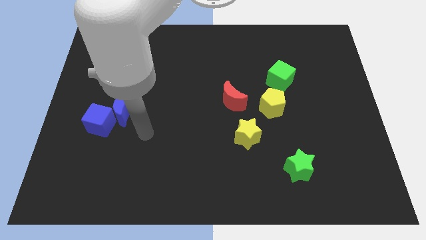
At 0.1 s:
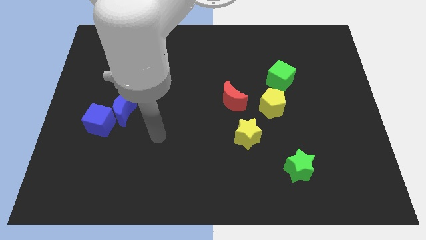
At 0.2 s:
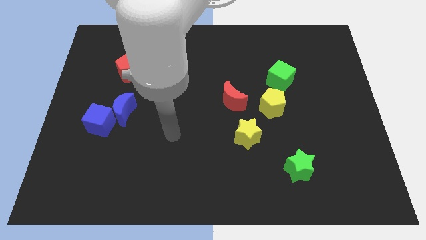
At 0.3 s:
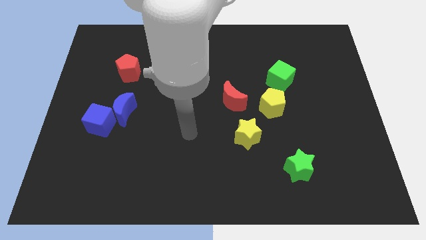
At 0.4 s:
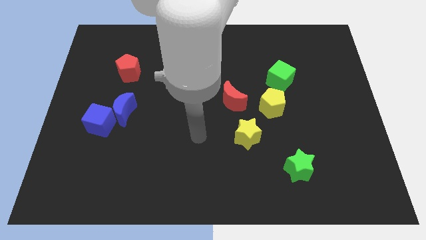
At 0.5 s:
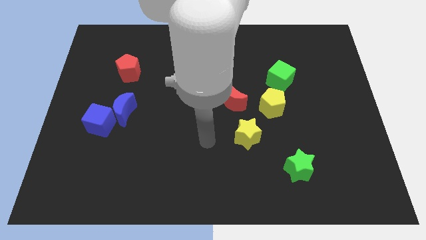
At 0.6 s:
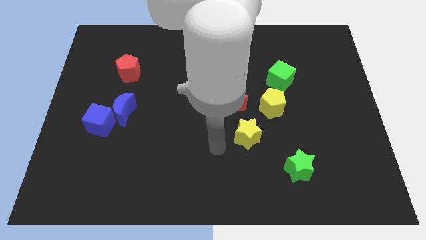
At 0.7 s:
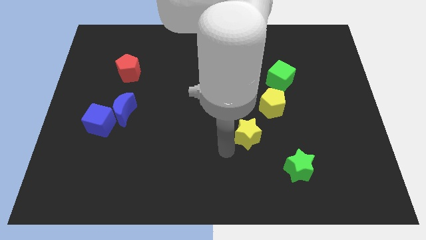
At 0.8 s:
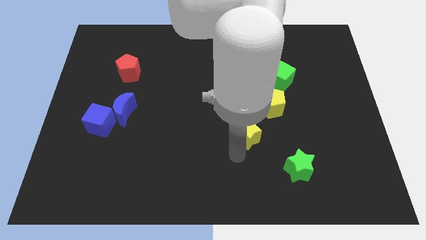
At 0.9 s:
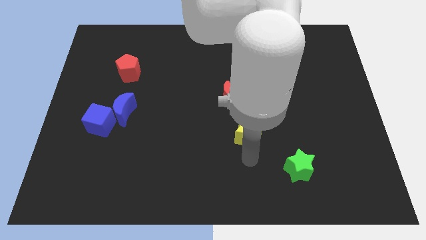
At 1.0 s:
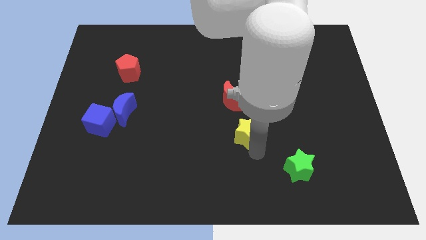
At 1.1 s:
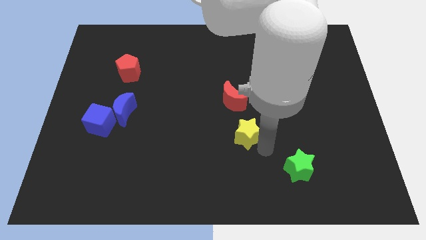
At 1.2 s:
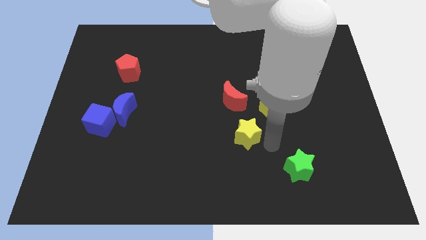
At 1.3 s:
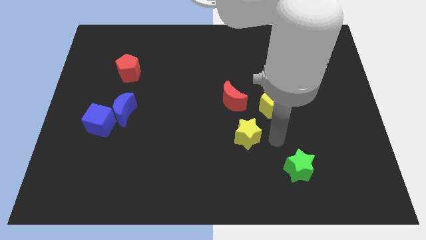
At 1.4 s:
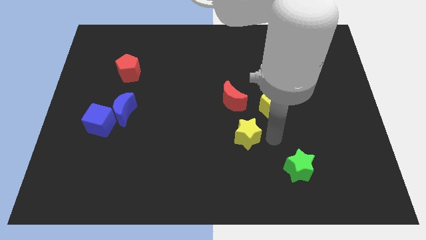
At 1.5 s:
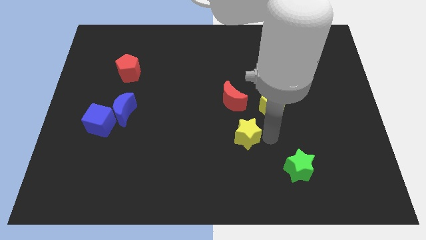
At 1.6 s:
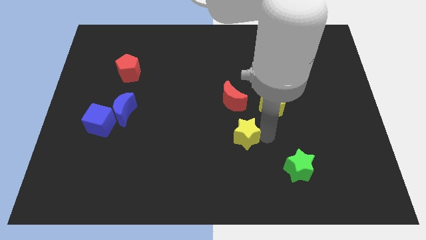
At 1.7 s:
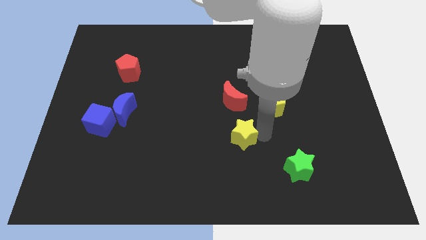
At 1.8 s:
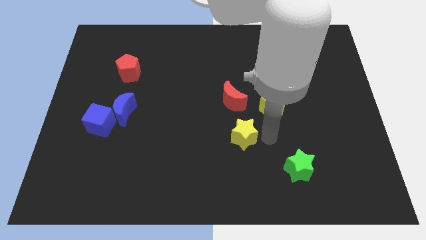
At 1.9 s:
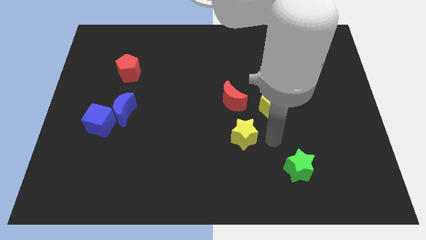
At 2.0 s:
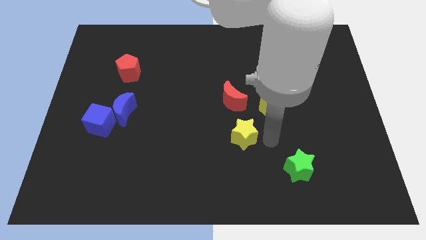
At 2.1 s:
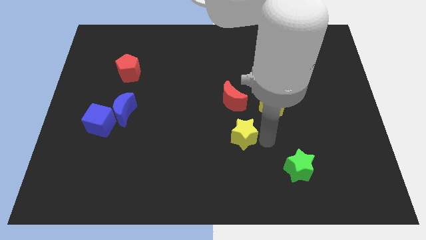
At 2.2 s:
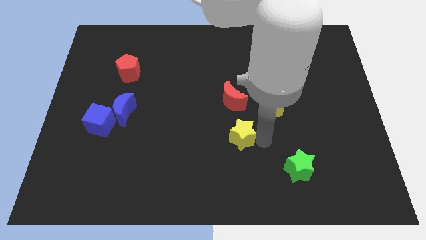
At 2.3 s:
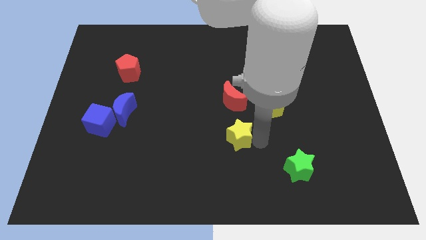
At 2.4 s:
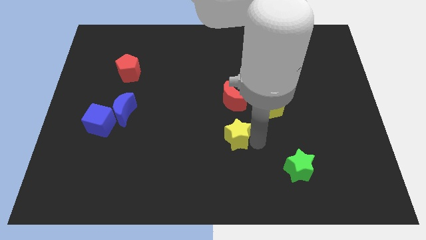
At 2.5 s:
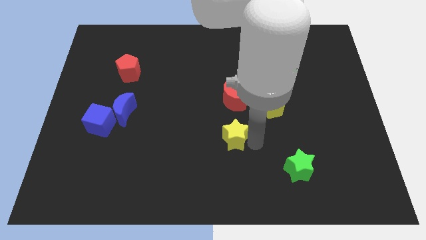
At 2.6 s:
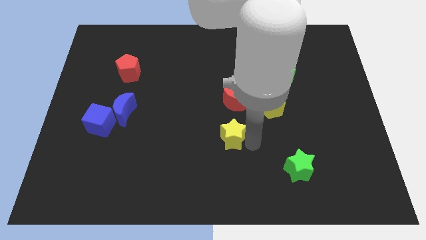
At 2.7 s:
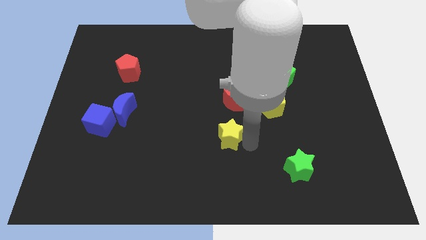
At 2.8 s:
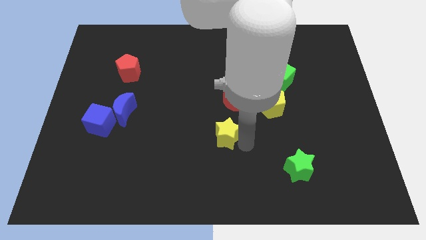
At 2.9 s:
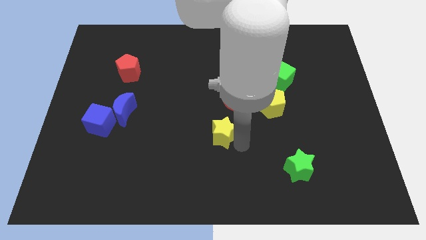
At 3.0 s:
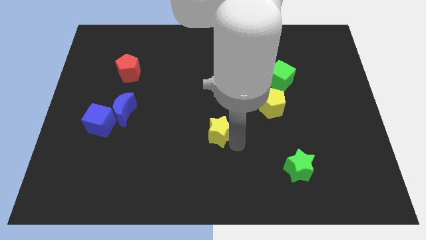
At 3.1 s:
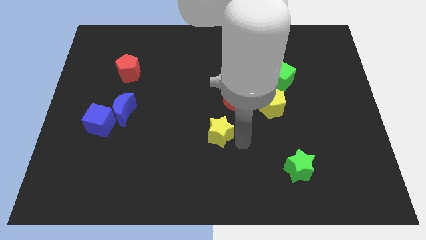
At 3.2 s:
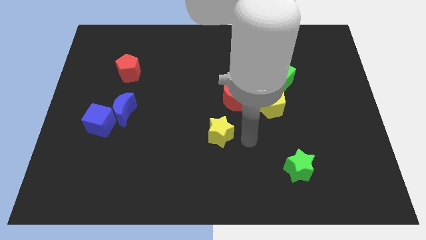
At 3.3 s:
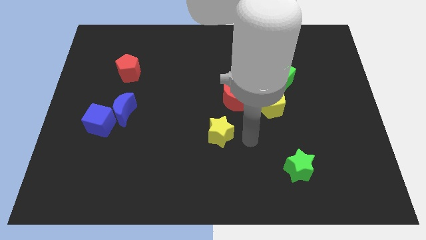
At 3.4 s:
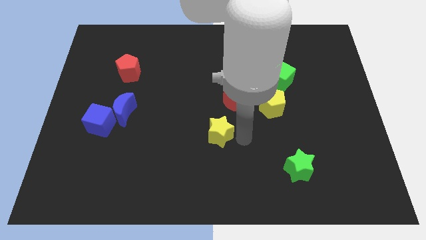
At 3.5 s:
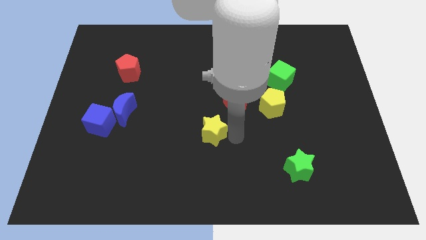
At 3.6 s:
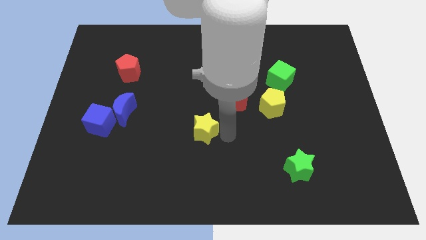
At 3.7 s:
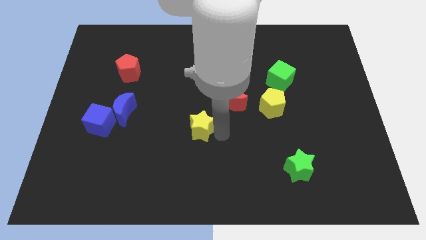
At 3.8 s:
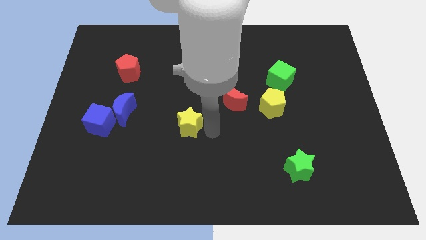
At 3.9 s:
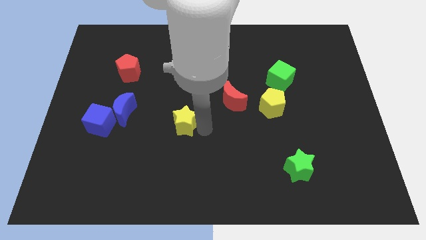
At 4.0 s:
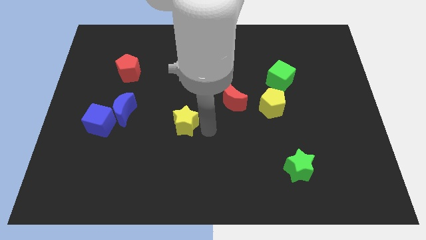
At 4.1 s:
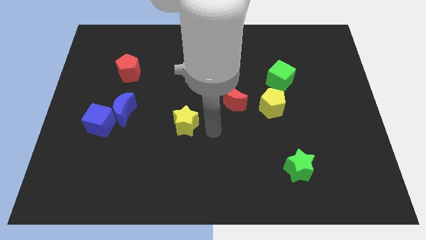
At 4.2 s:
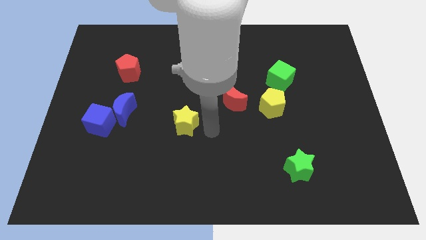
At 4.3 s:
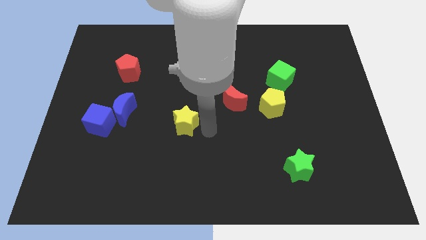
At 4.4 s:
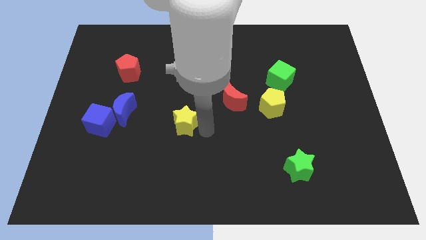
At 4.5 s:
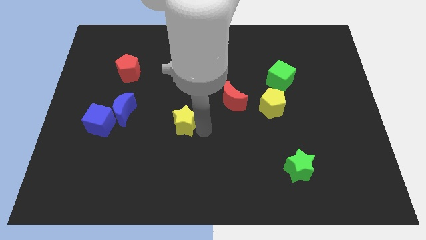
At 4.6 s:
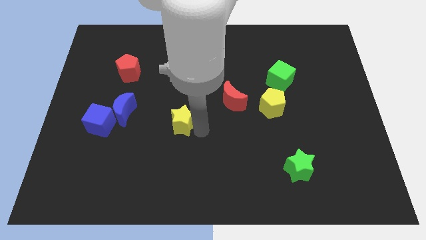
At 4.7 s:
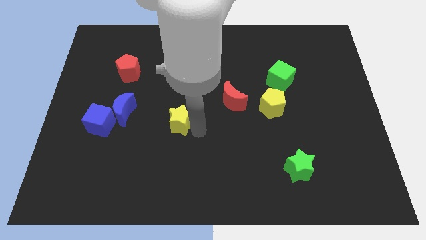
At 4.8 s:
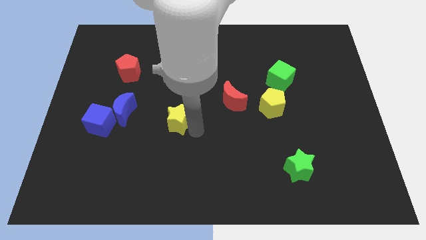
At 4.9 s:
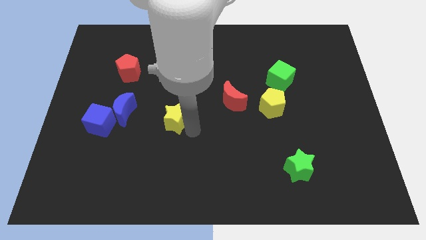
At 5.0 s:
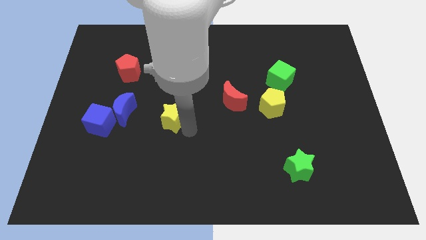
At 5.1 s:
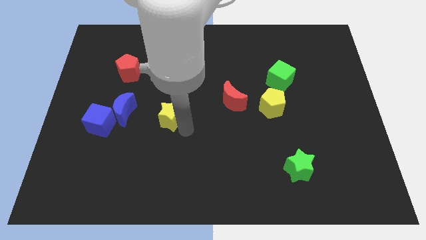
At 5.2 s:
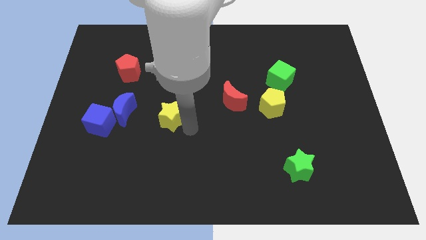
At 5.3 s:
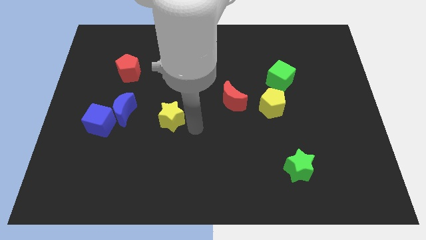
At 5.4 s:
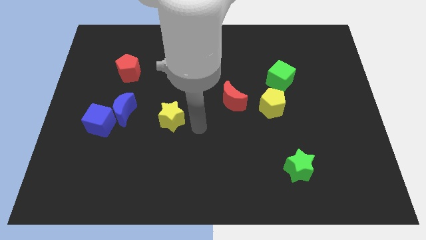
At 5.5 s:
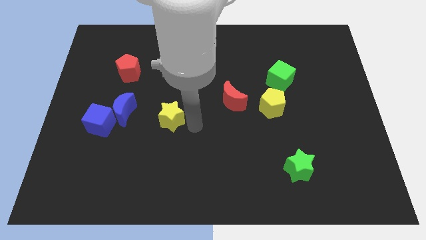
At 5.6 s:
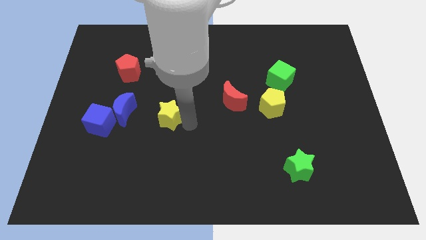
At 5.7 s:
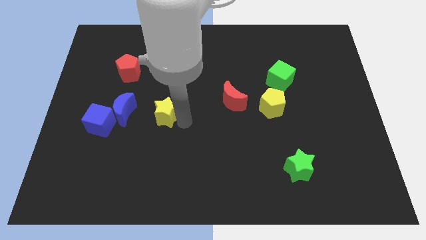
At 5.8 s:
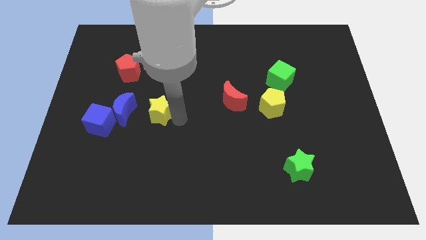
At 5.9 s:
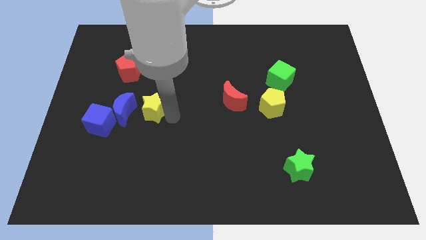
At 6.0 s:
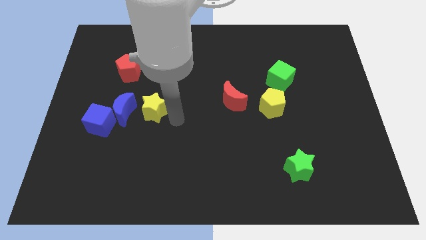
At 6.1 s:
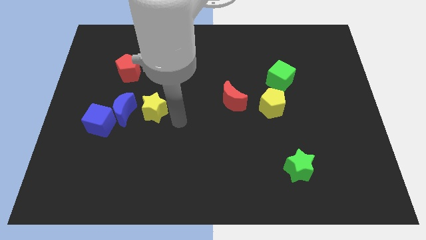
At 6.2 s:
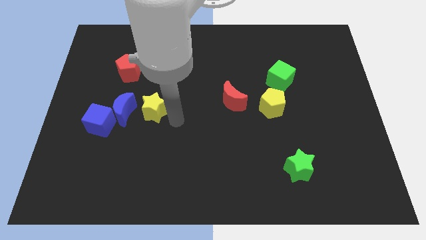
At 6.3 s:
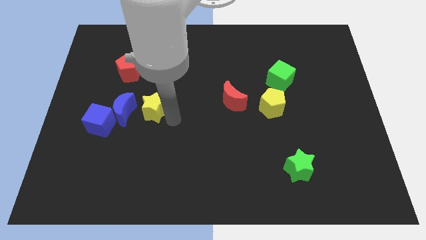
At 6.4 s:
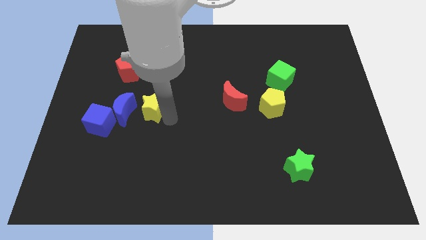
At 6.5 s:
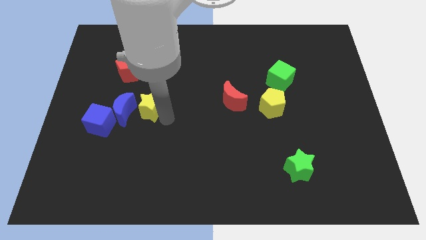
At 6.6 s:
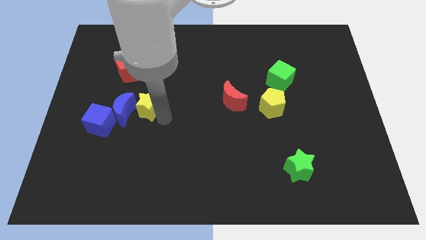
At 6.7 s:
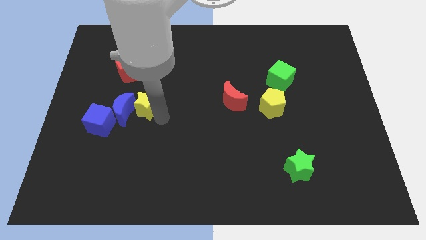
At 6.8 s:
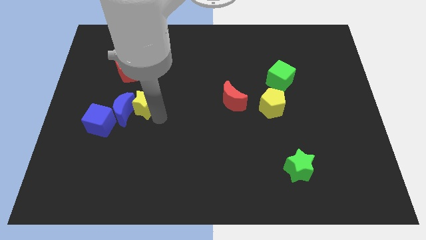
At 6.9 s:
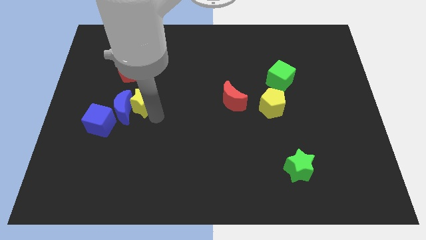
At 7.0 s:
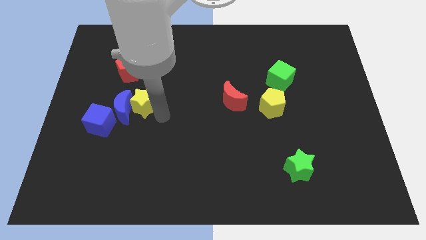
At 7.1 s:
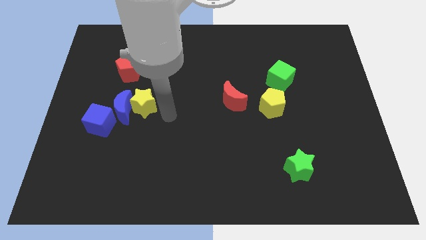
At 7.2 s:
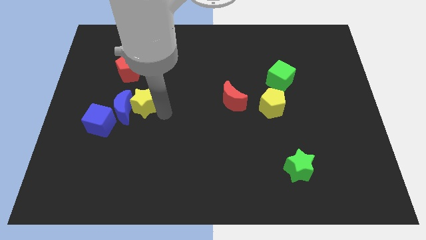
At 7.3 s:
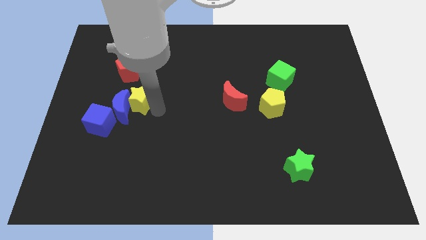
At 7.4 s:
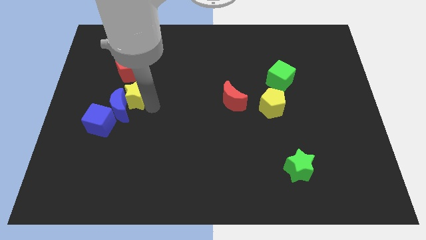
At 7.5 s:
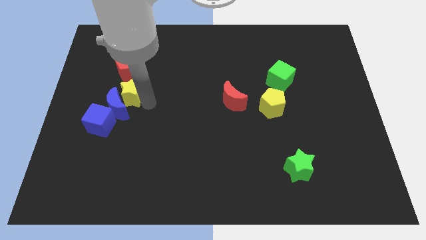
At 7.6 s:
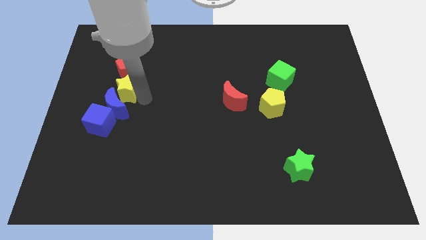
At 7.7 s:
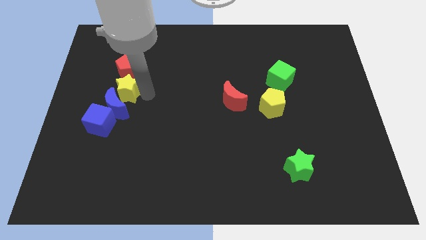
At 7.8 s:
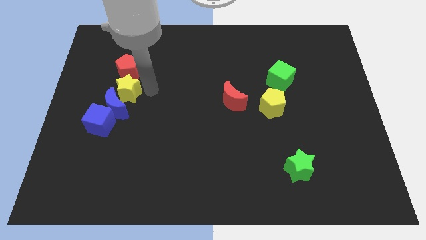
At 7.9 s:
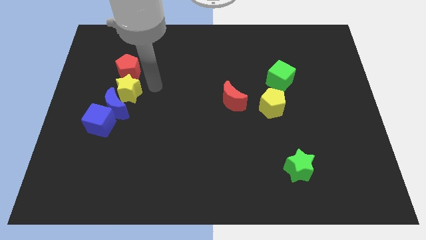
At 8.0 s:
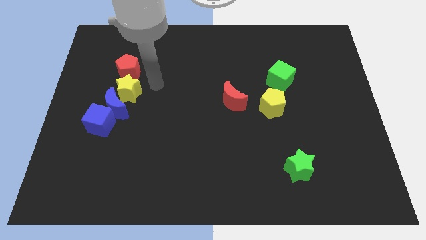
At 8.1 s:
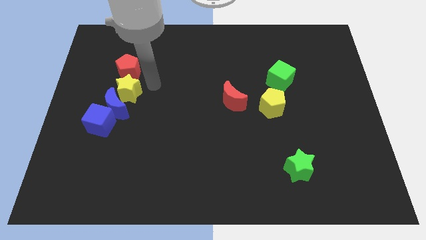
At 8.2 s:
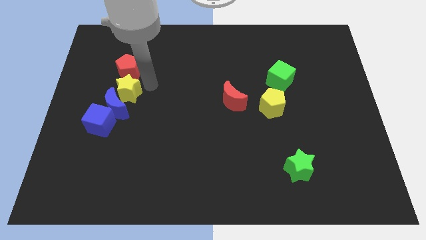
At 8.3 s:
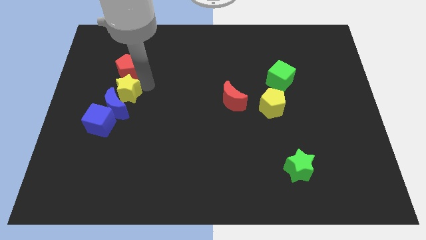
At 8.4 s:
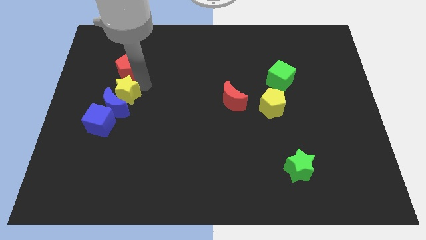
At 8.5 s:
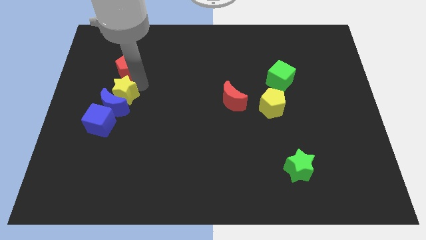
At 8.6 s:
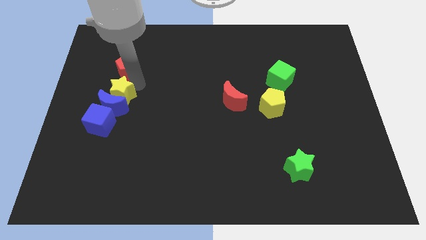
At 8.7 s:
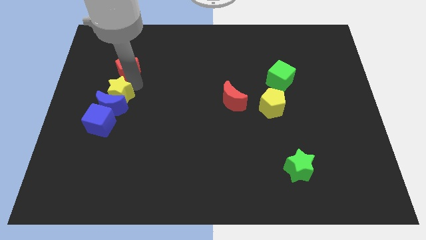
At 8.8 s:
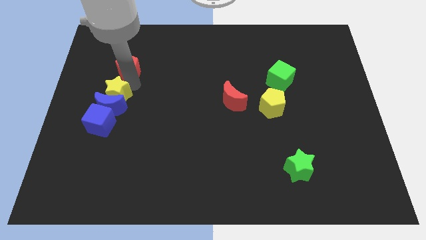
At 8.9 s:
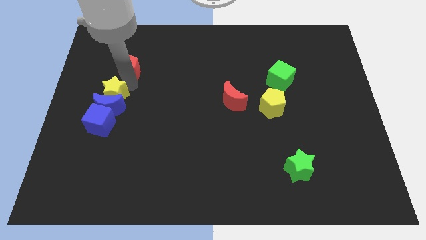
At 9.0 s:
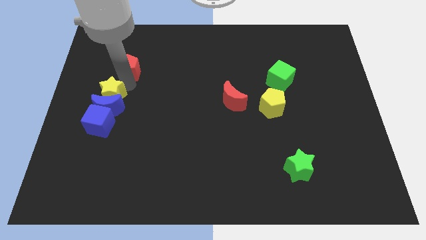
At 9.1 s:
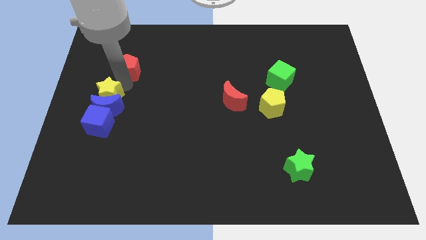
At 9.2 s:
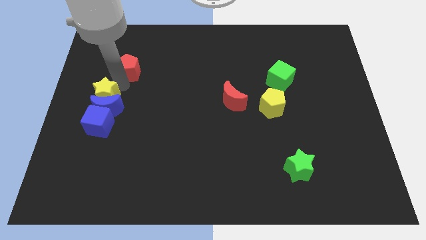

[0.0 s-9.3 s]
put the yellow star to the center left
